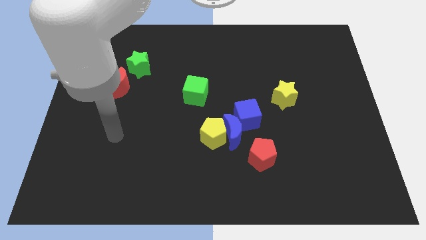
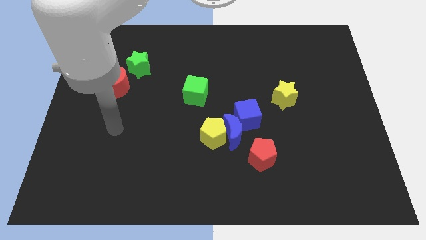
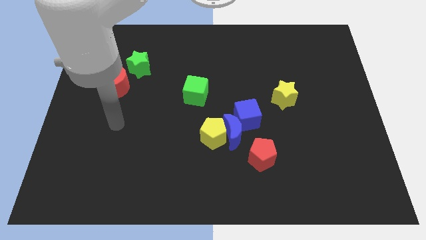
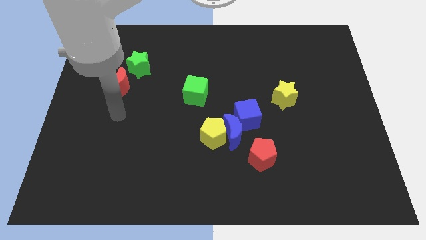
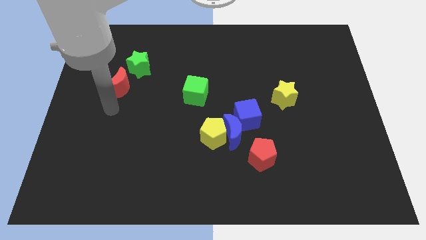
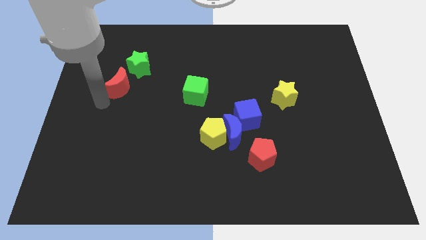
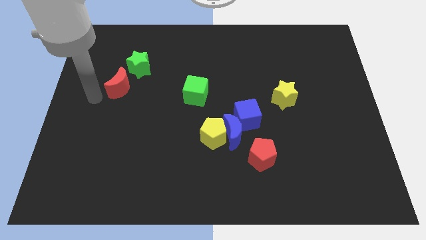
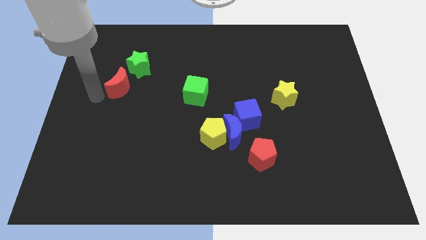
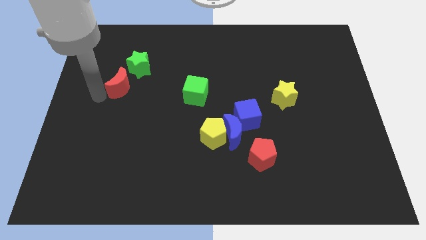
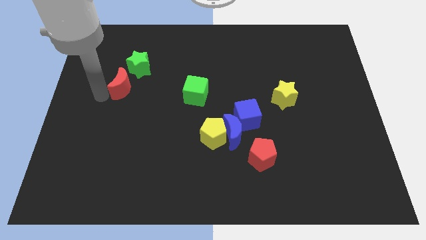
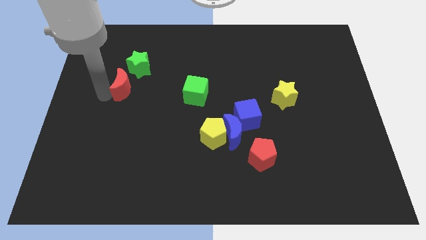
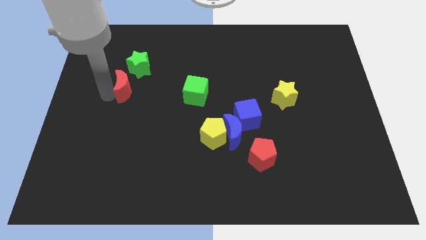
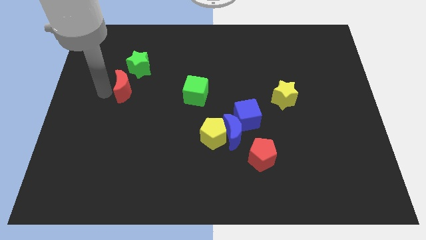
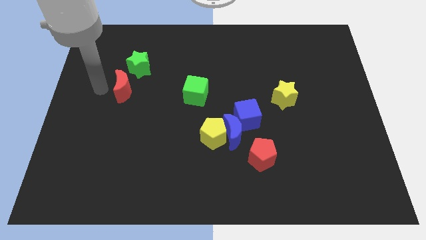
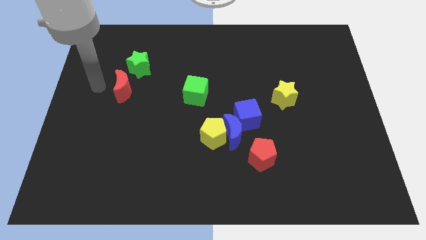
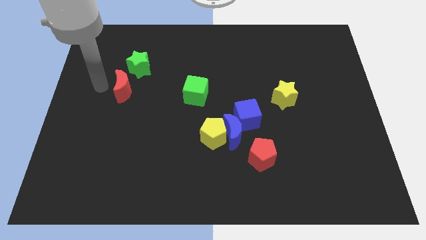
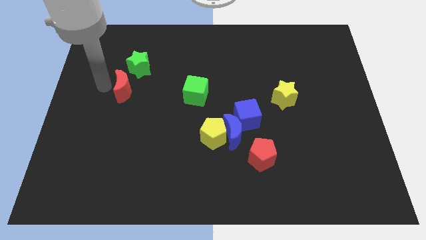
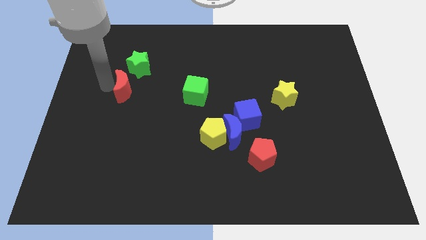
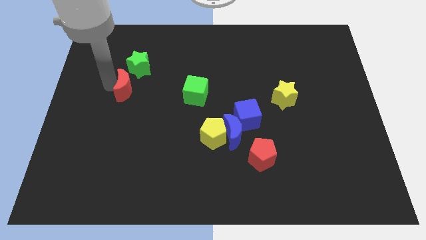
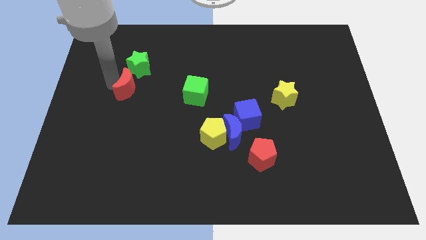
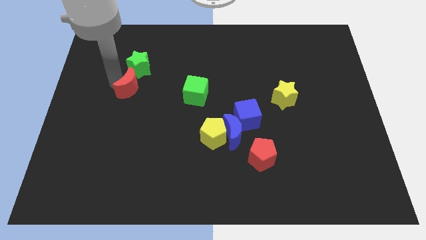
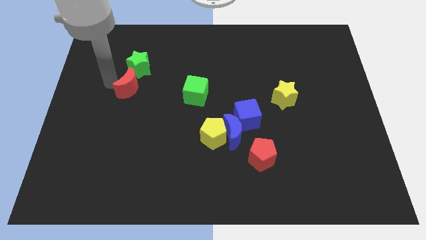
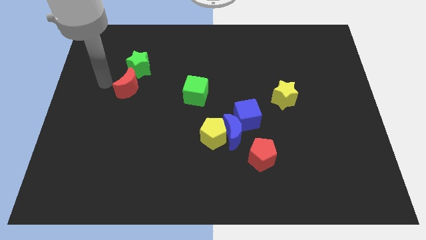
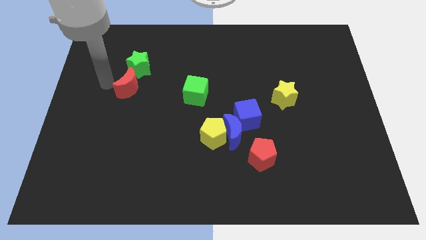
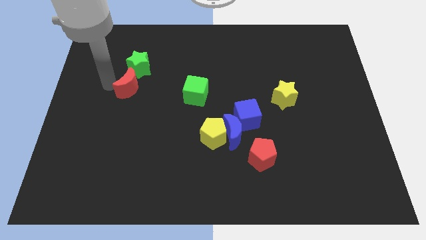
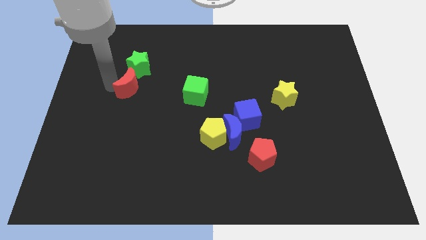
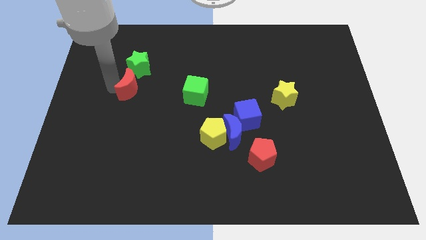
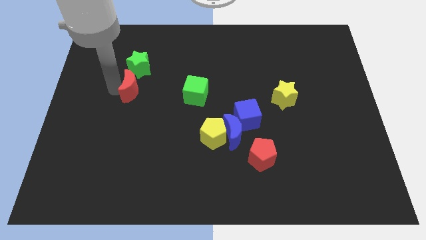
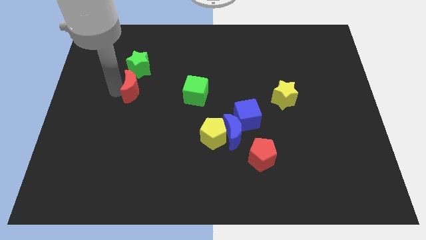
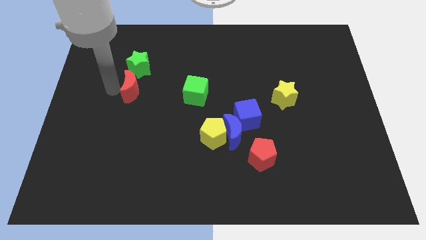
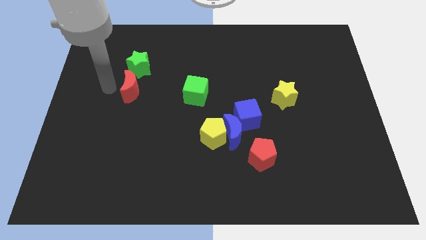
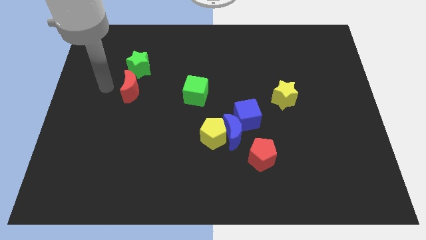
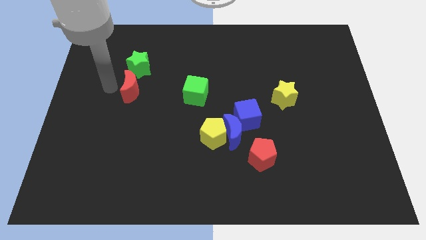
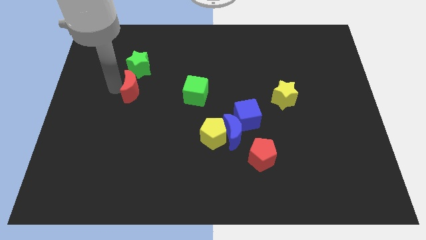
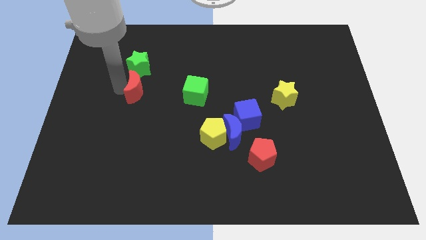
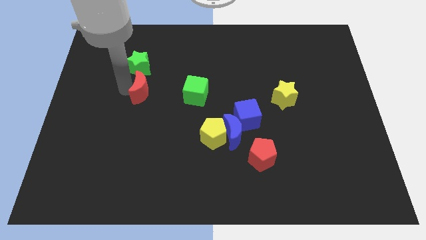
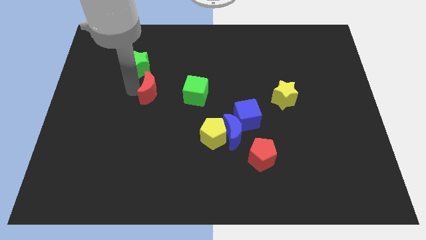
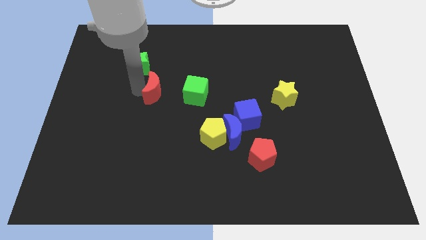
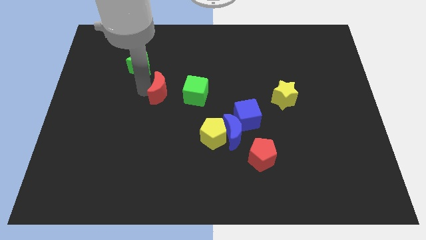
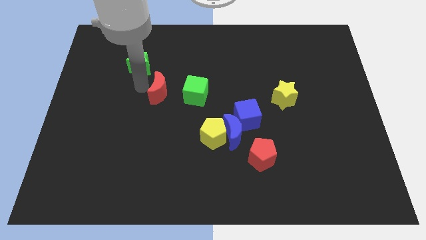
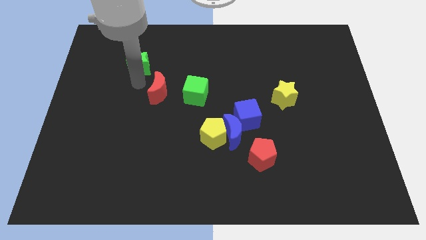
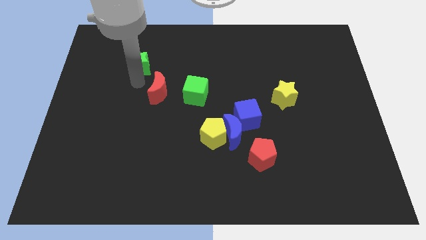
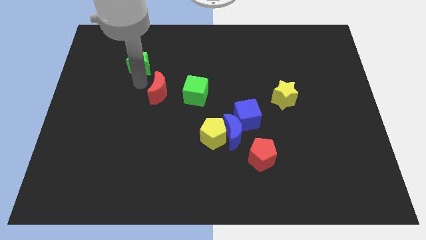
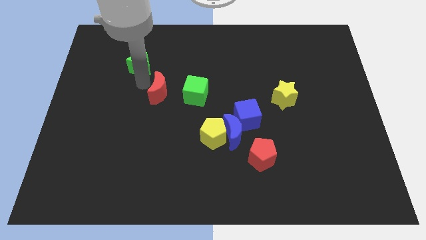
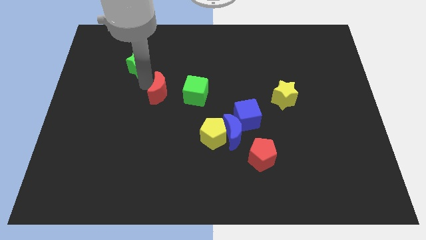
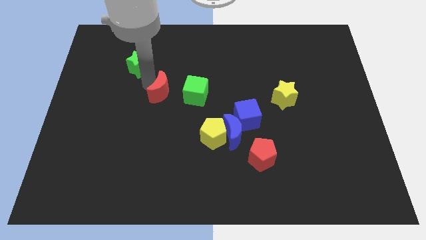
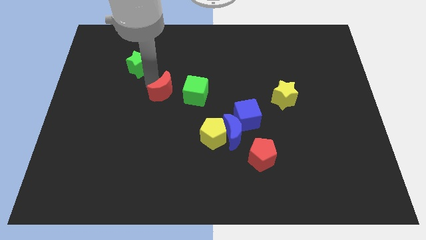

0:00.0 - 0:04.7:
push the red moon to the center

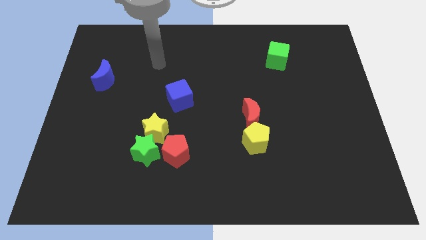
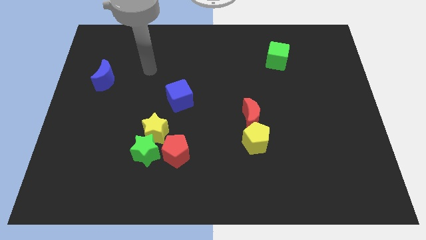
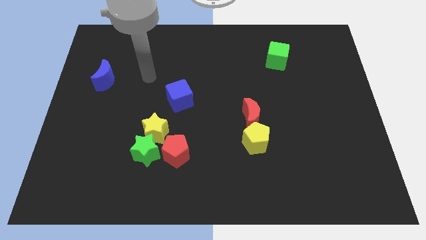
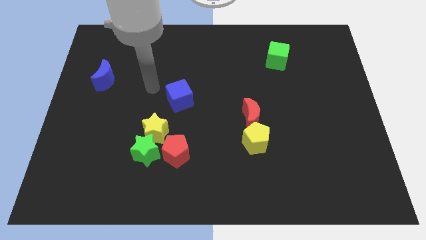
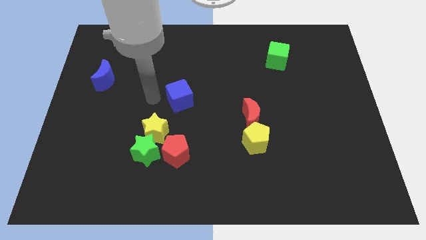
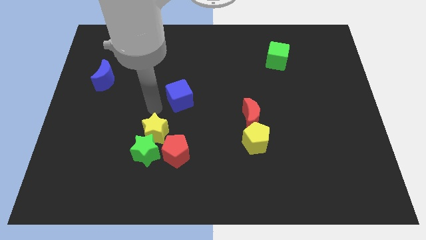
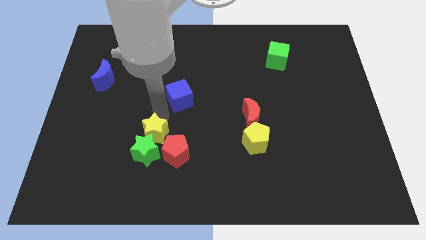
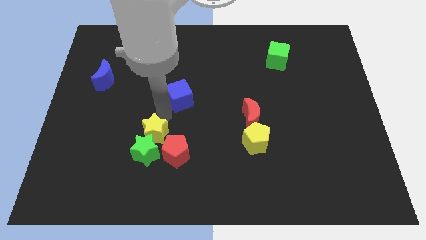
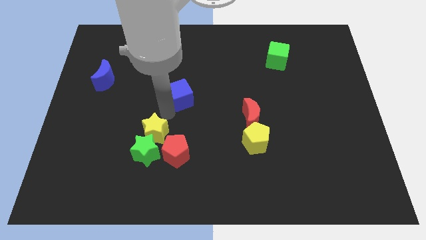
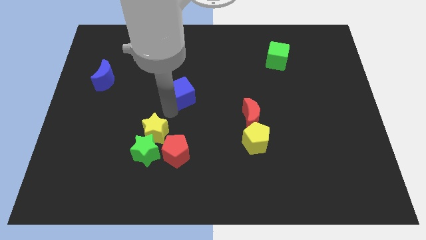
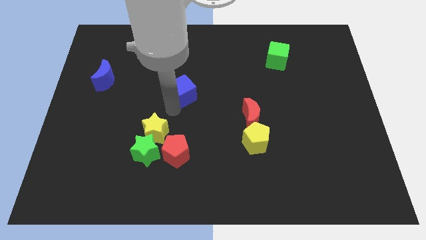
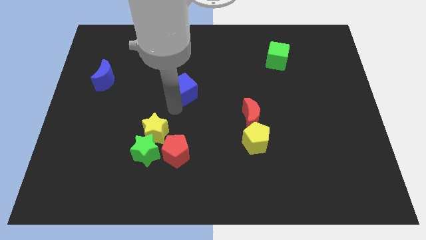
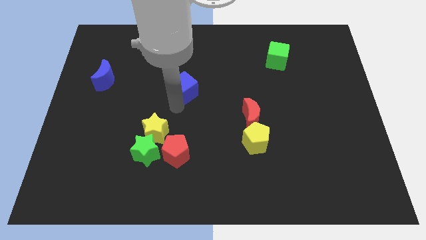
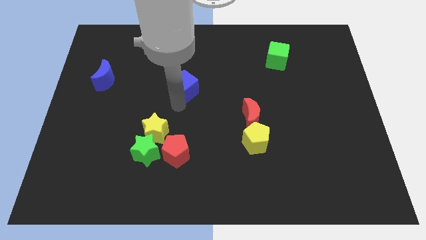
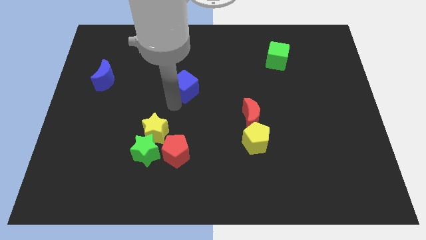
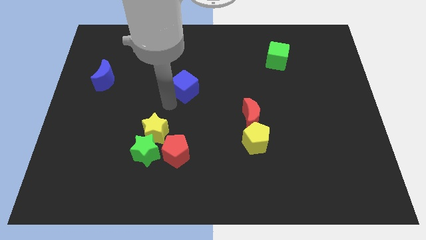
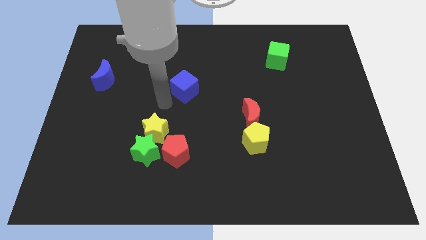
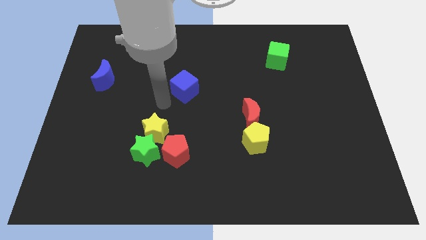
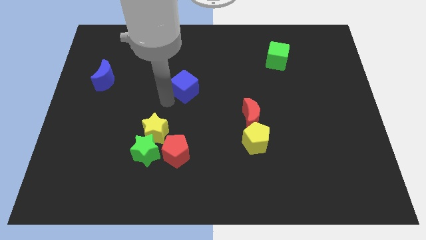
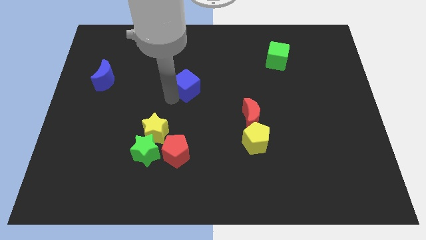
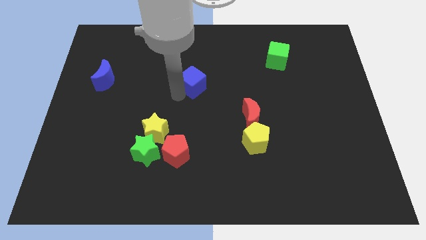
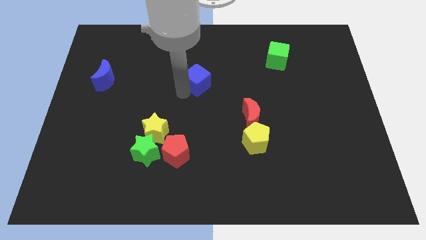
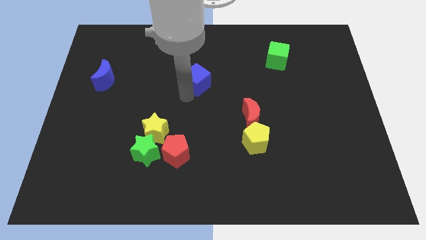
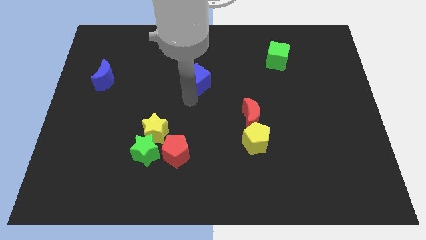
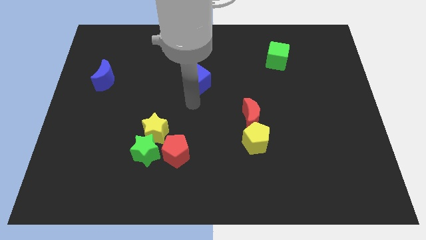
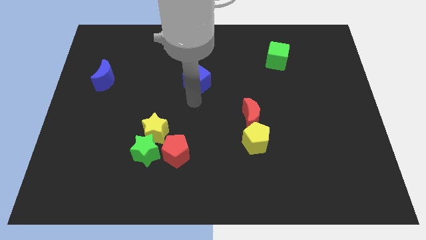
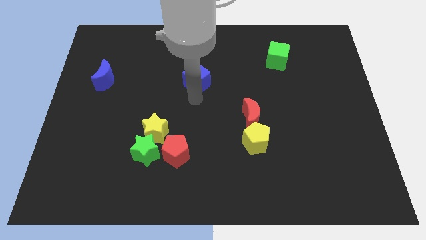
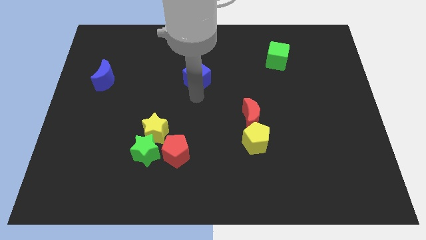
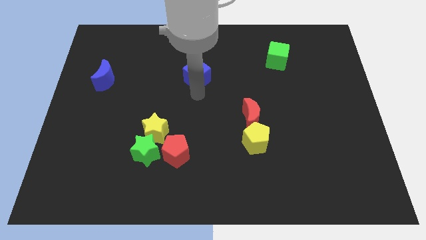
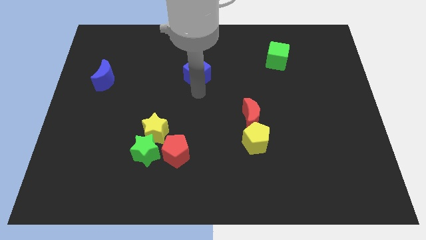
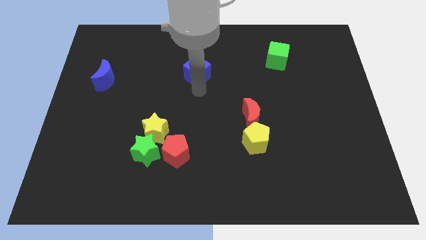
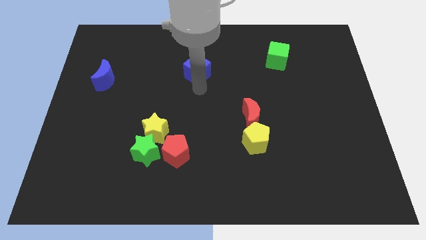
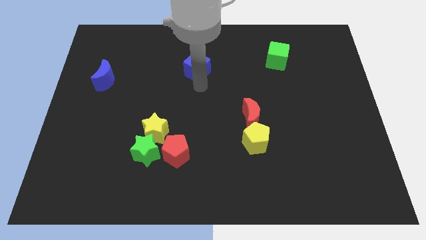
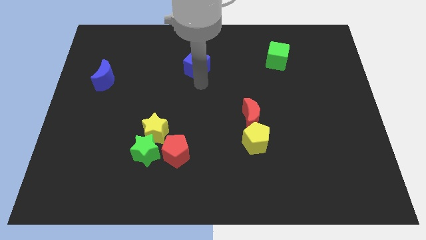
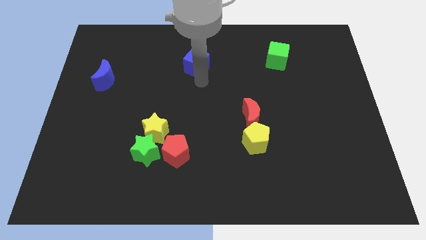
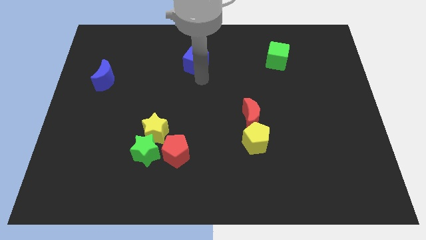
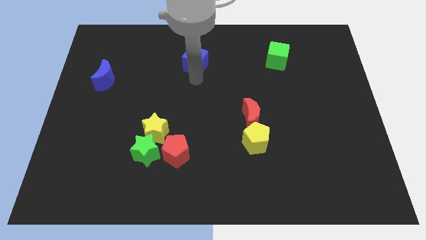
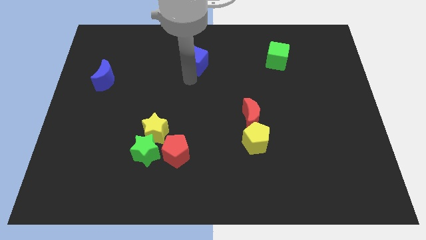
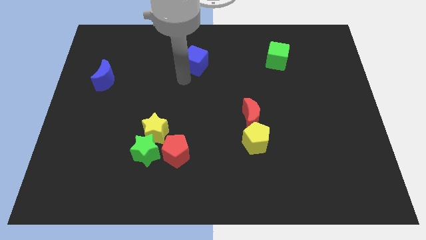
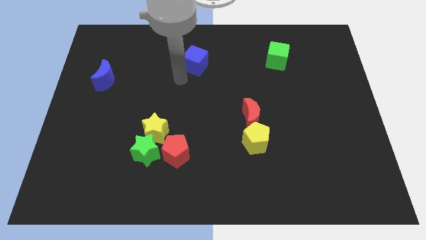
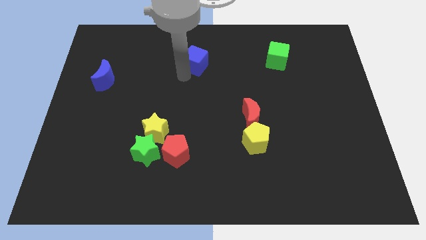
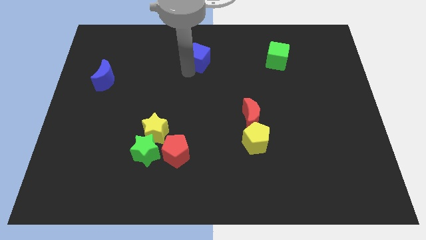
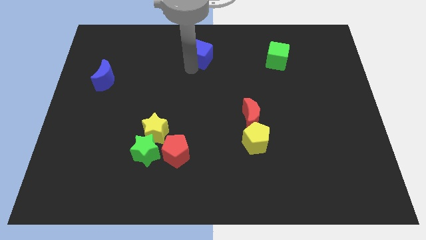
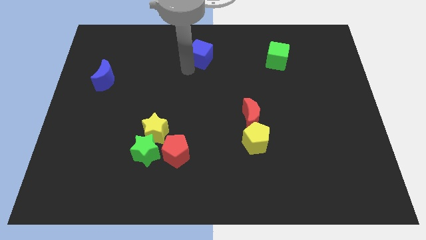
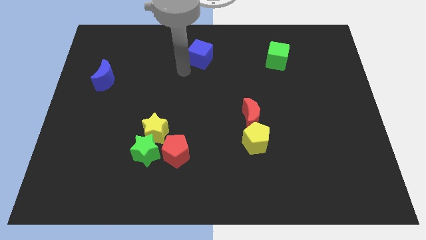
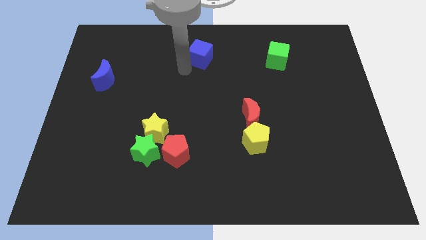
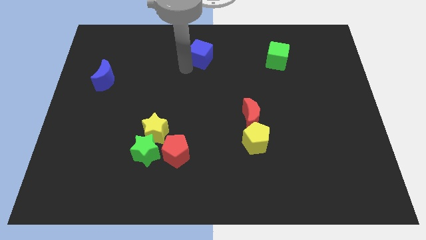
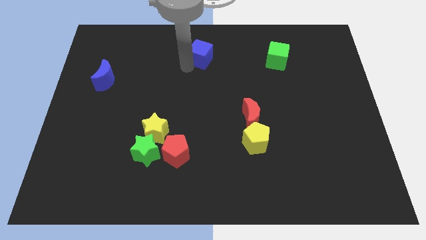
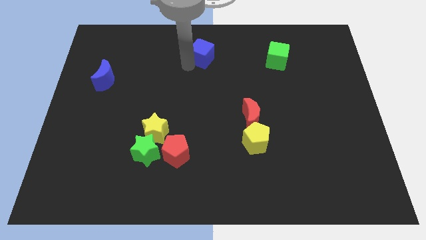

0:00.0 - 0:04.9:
slide the blue cube to the towards your base
